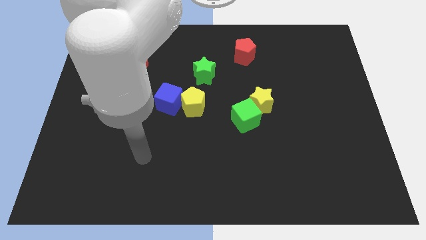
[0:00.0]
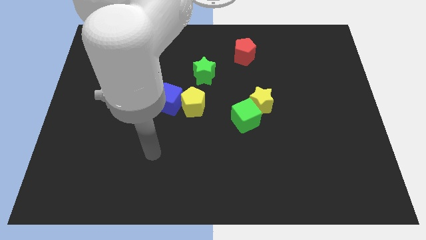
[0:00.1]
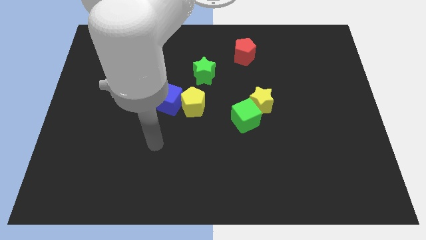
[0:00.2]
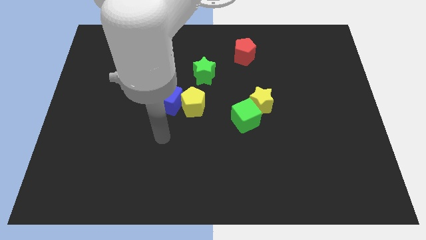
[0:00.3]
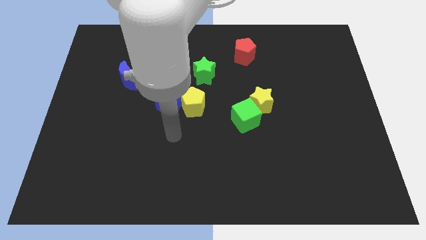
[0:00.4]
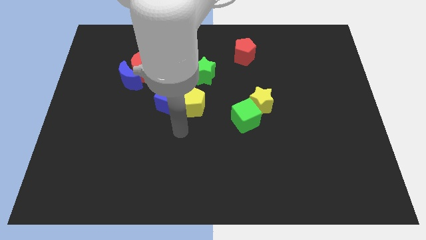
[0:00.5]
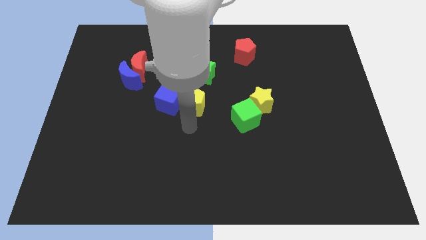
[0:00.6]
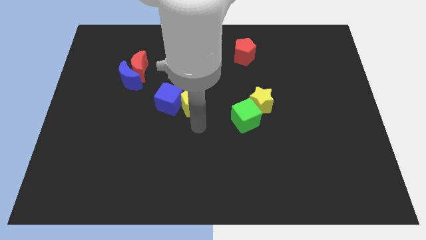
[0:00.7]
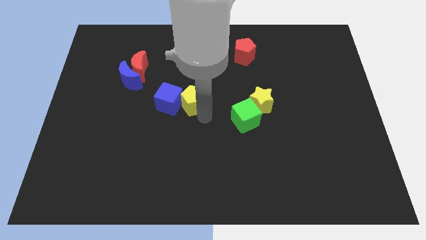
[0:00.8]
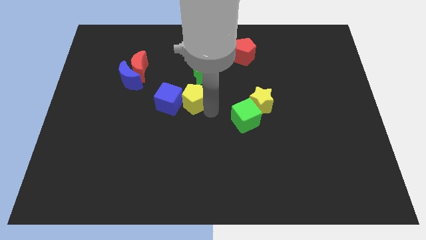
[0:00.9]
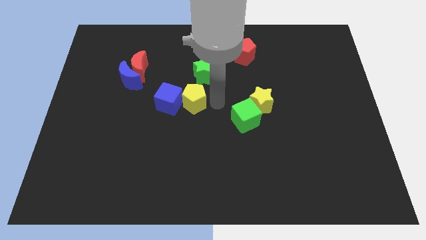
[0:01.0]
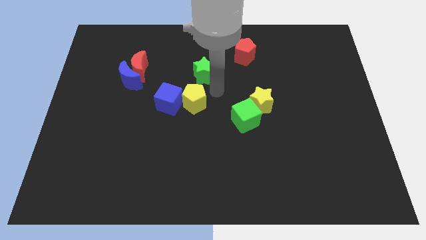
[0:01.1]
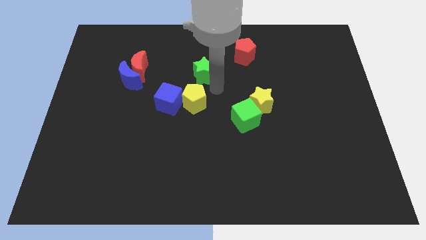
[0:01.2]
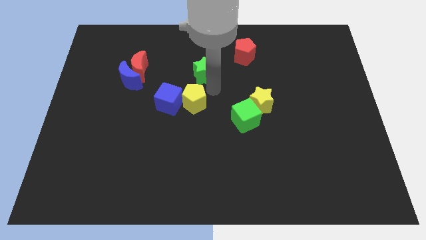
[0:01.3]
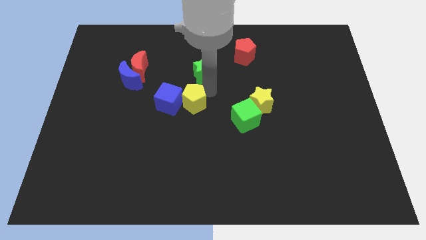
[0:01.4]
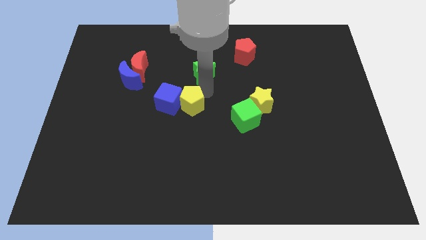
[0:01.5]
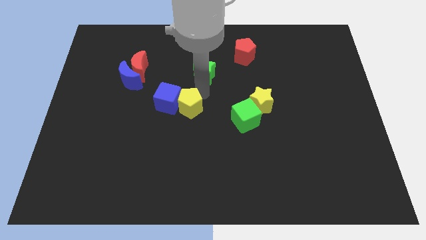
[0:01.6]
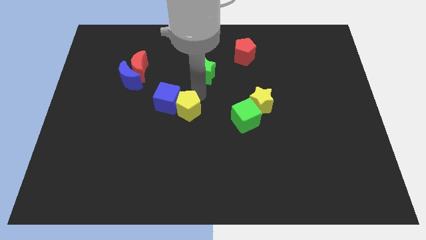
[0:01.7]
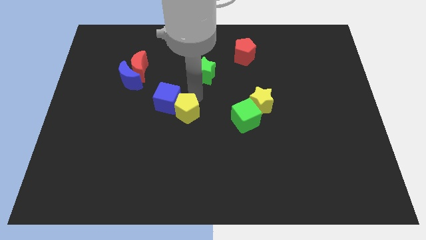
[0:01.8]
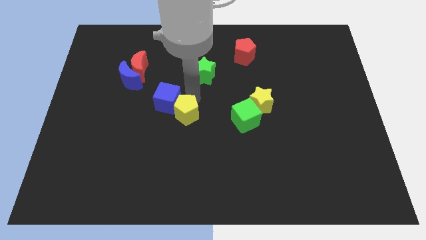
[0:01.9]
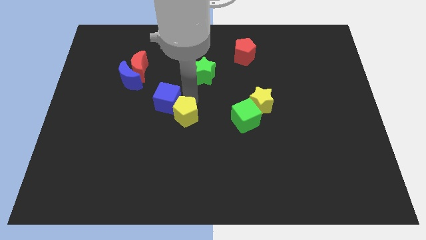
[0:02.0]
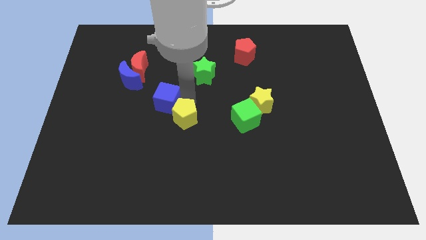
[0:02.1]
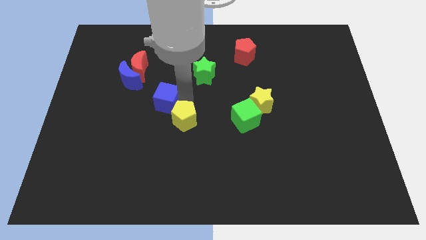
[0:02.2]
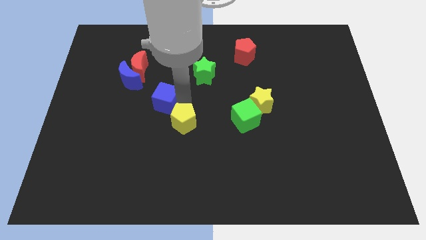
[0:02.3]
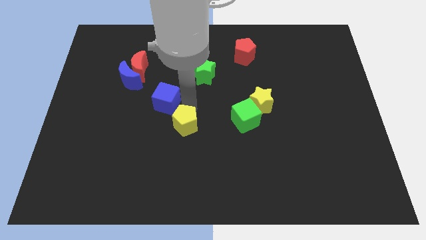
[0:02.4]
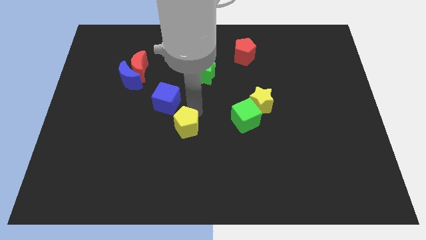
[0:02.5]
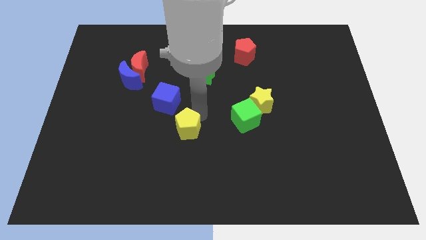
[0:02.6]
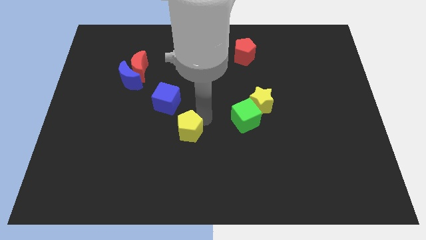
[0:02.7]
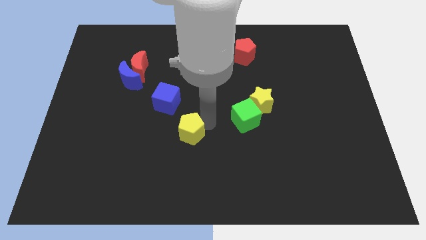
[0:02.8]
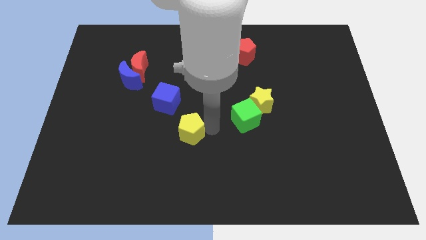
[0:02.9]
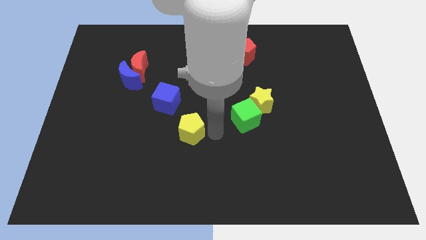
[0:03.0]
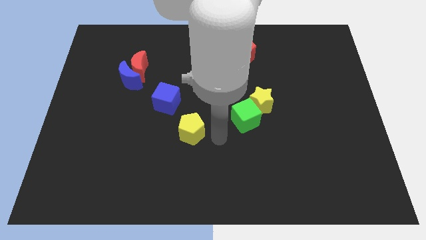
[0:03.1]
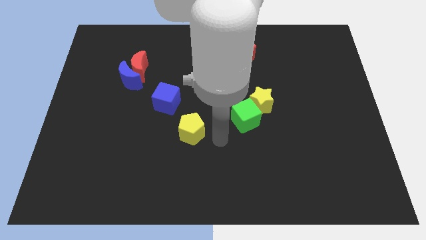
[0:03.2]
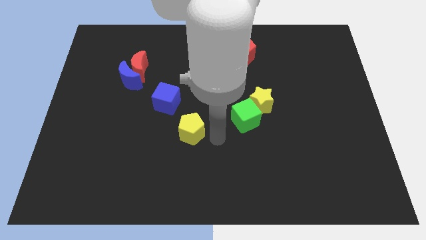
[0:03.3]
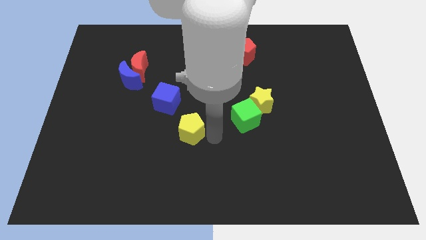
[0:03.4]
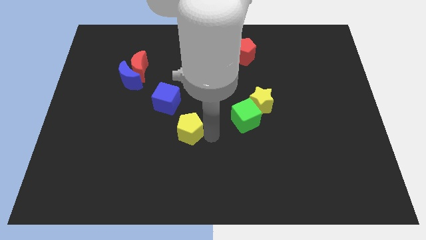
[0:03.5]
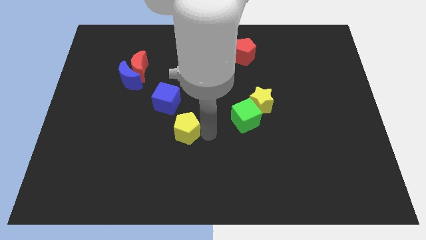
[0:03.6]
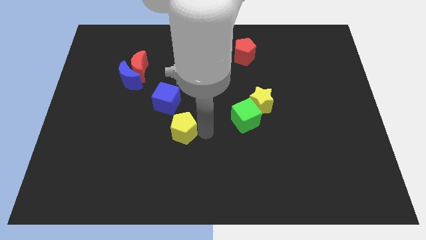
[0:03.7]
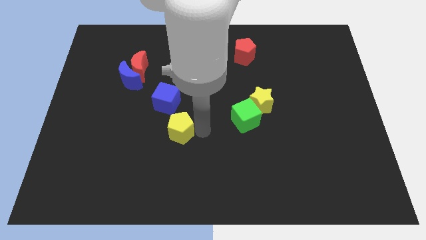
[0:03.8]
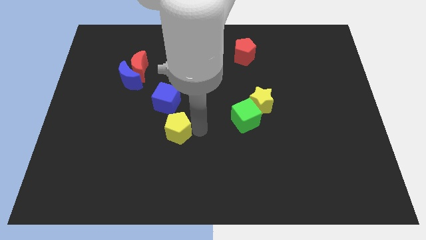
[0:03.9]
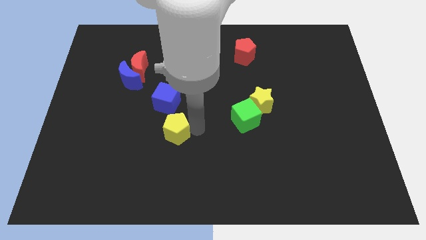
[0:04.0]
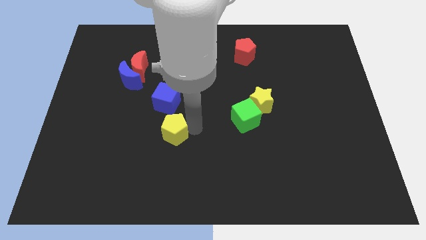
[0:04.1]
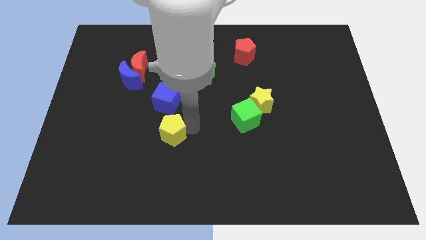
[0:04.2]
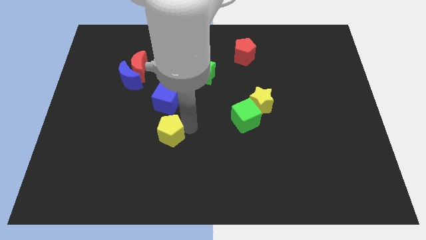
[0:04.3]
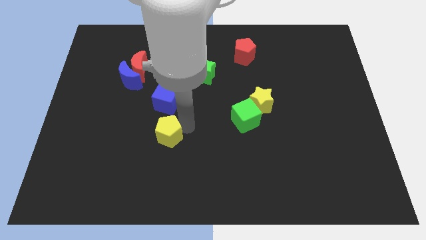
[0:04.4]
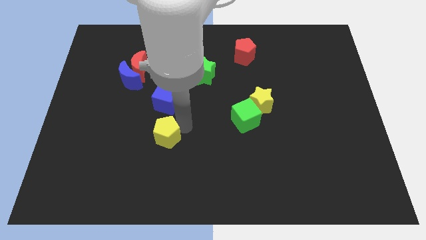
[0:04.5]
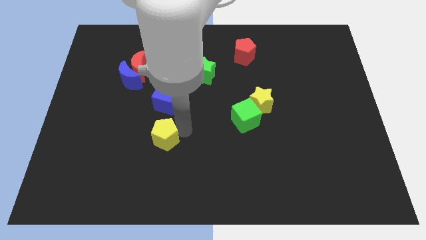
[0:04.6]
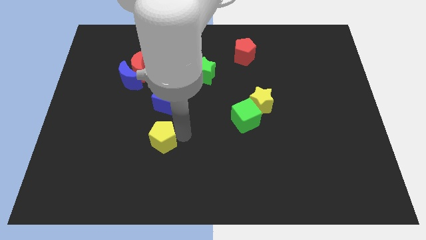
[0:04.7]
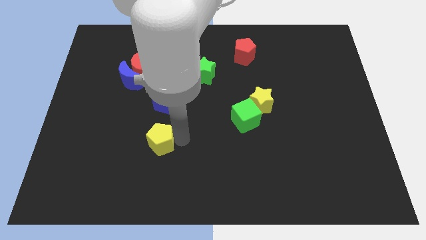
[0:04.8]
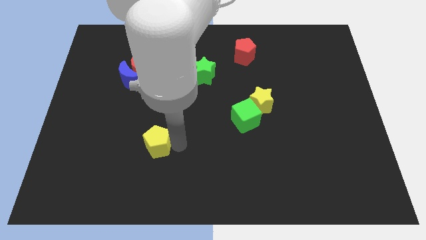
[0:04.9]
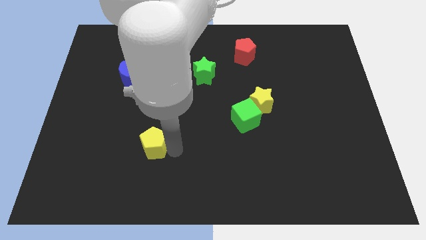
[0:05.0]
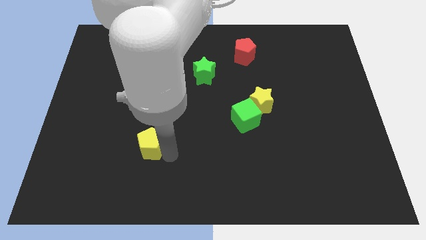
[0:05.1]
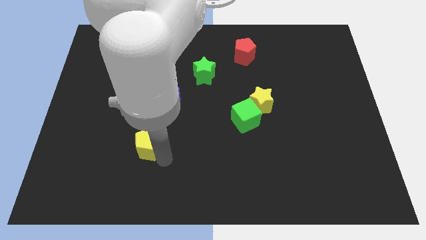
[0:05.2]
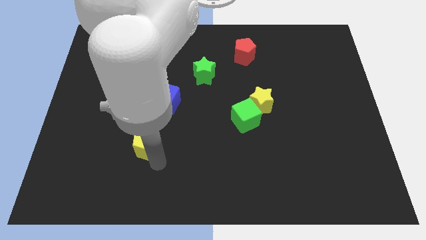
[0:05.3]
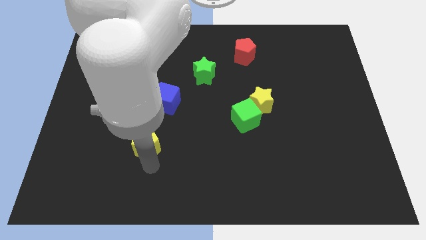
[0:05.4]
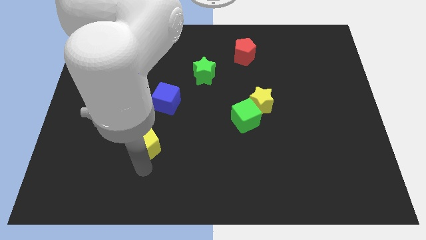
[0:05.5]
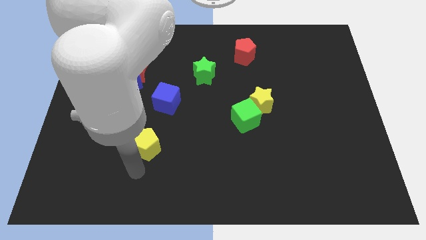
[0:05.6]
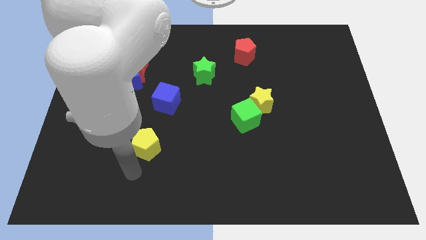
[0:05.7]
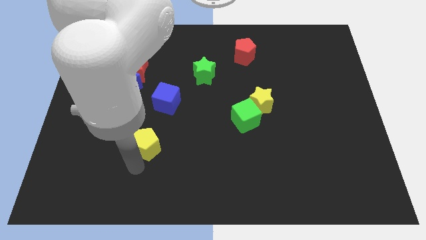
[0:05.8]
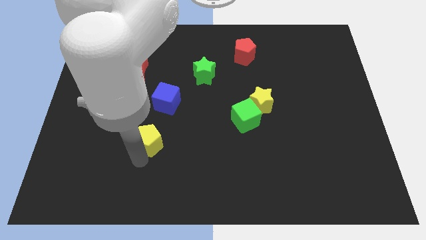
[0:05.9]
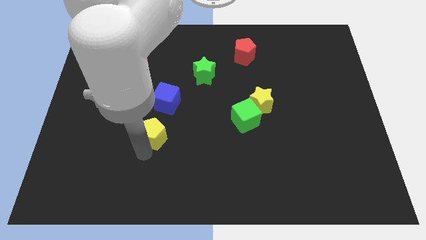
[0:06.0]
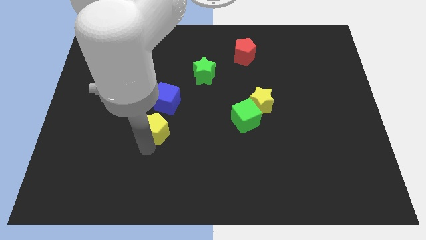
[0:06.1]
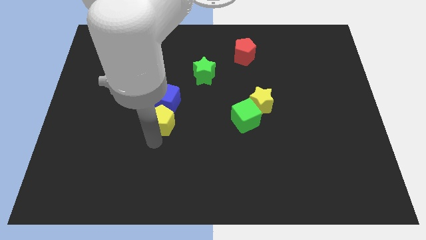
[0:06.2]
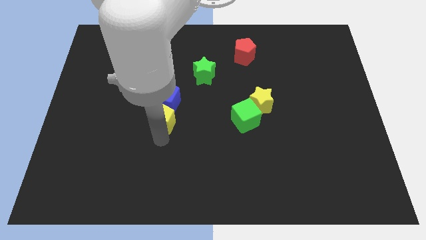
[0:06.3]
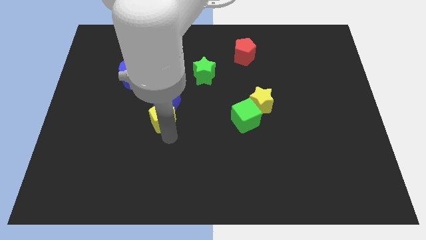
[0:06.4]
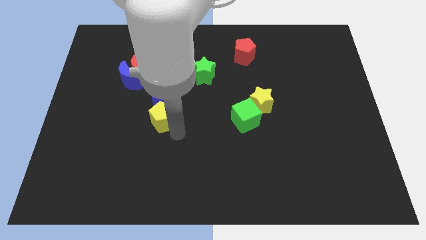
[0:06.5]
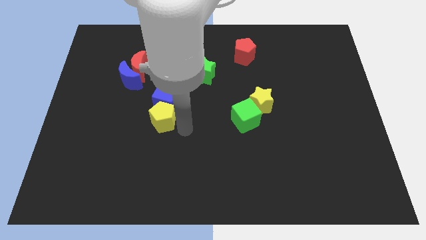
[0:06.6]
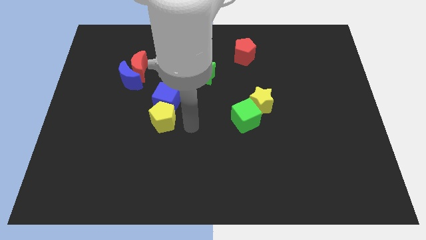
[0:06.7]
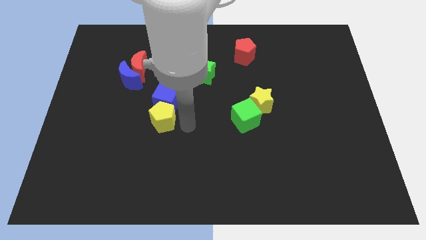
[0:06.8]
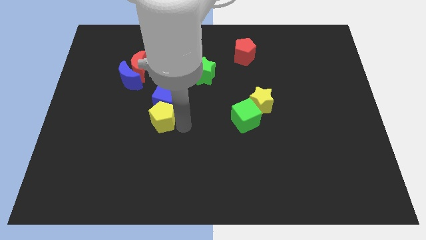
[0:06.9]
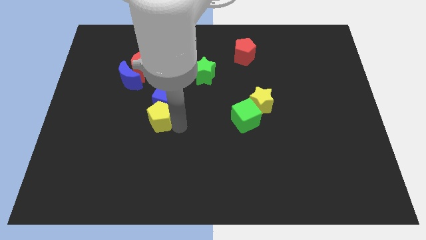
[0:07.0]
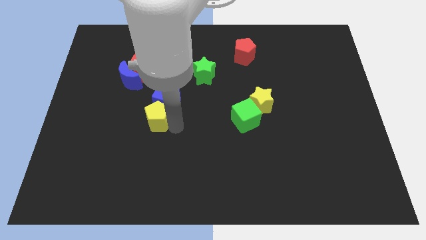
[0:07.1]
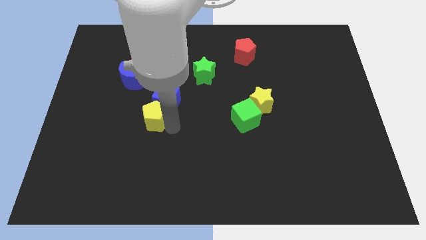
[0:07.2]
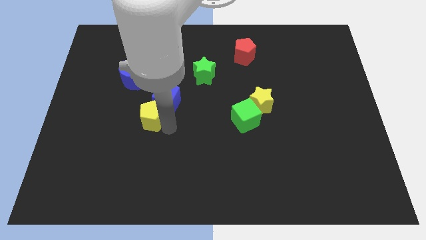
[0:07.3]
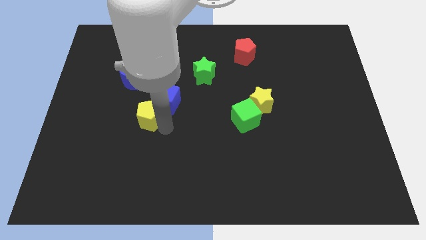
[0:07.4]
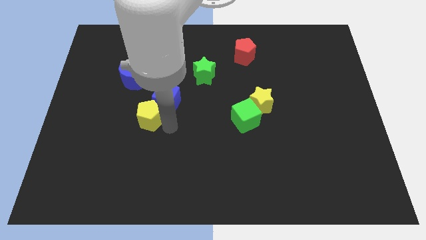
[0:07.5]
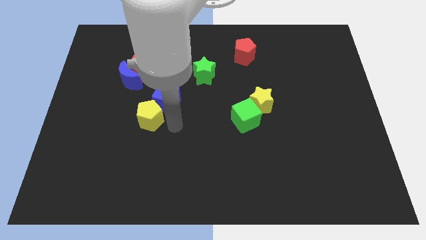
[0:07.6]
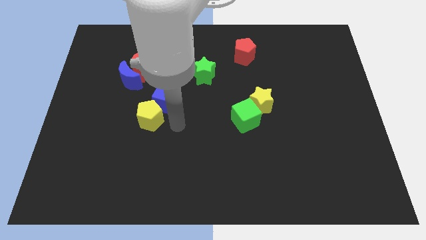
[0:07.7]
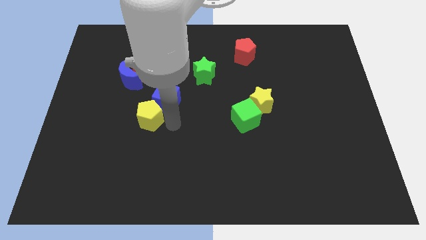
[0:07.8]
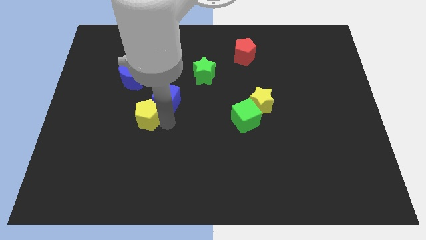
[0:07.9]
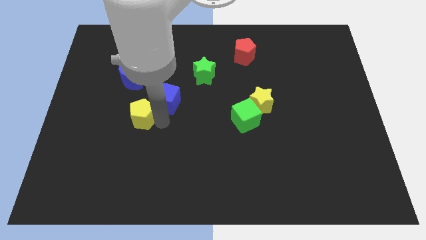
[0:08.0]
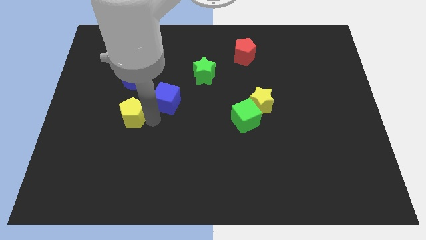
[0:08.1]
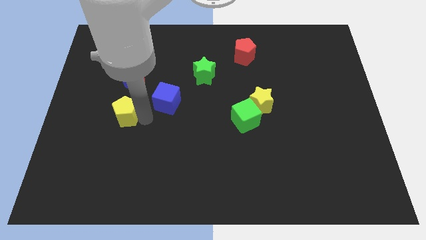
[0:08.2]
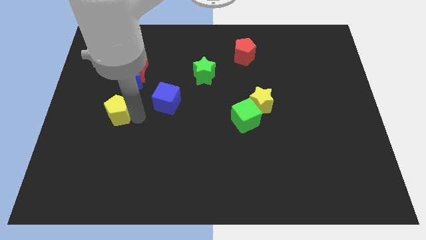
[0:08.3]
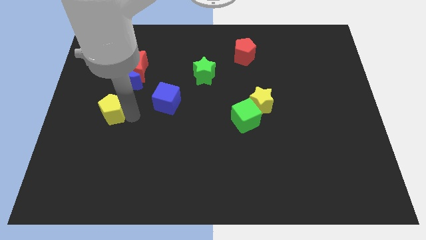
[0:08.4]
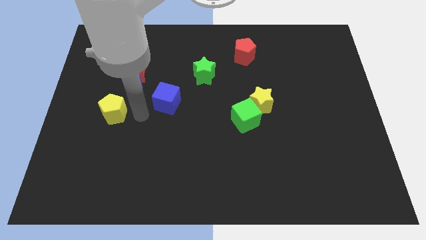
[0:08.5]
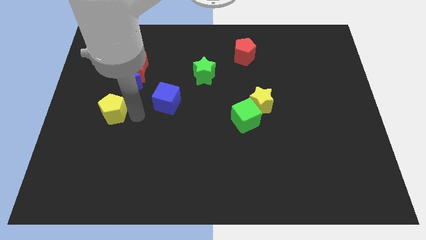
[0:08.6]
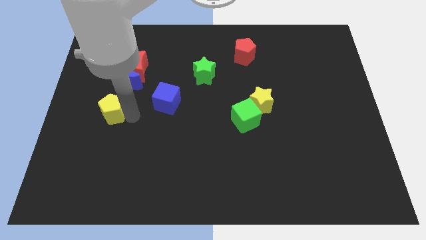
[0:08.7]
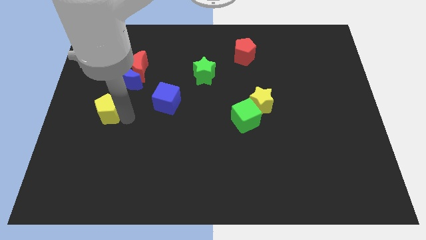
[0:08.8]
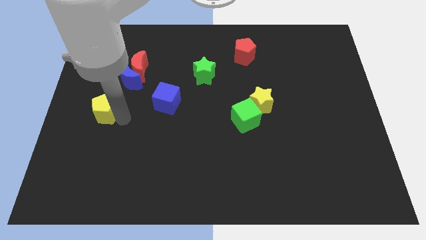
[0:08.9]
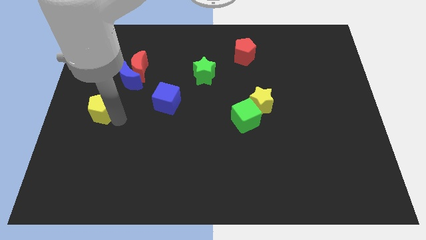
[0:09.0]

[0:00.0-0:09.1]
slide the yellow pentagon to the left side of the board
